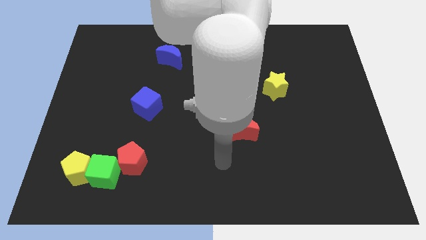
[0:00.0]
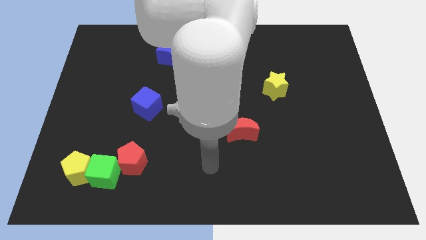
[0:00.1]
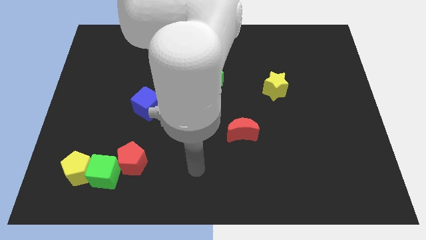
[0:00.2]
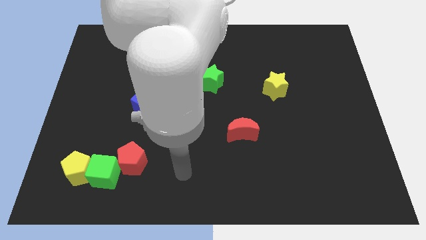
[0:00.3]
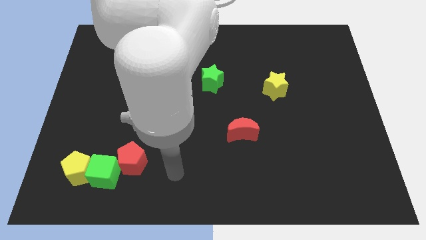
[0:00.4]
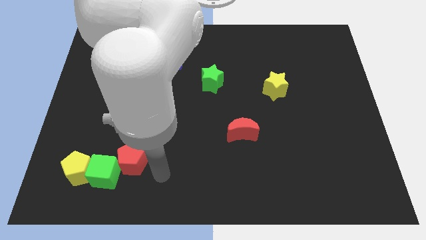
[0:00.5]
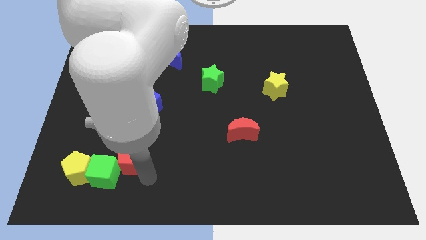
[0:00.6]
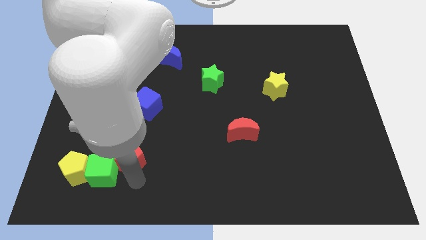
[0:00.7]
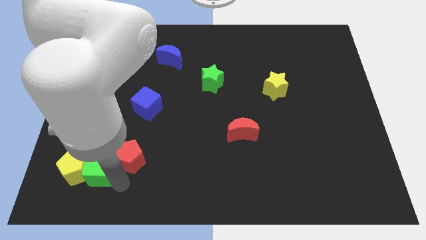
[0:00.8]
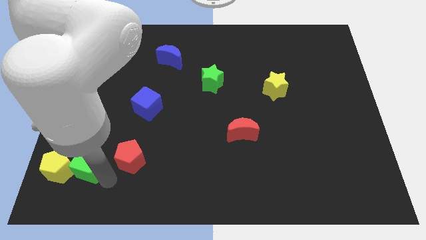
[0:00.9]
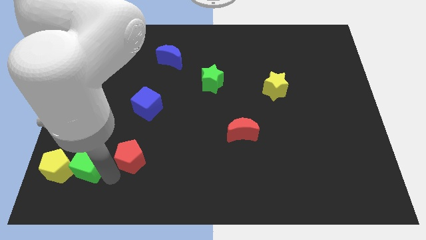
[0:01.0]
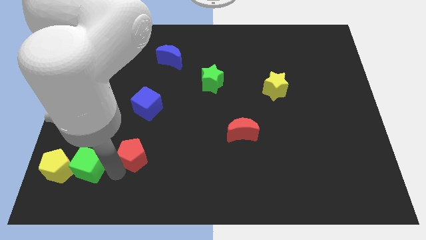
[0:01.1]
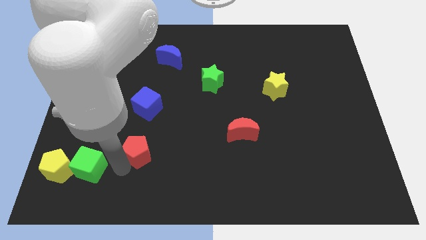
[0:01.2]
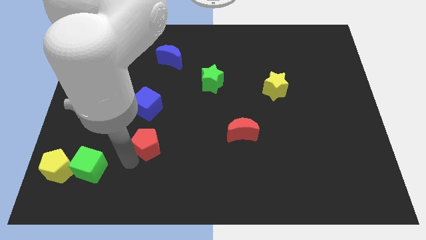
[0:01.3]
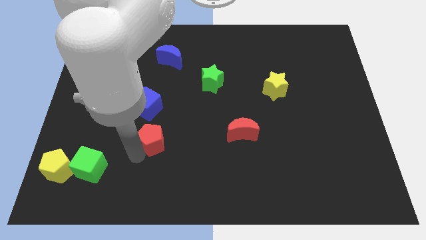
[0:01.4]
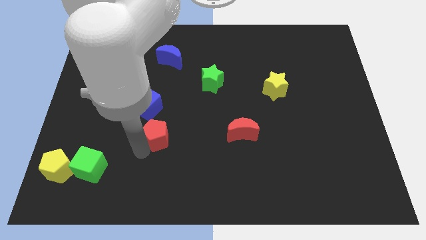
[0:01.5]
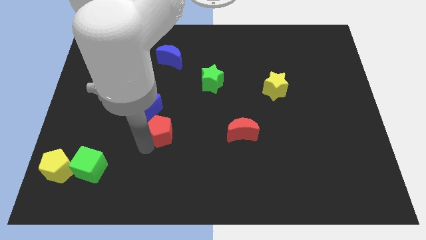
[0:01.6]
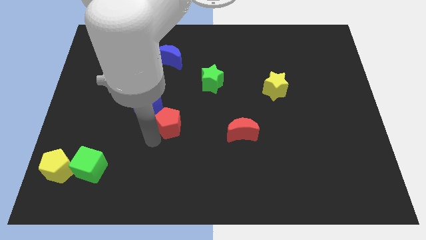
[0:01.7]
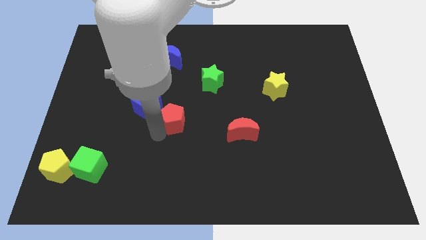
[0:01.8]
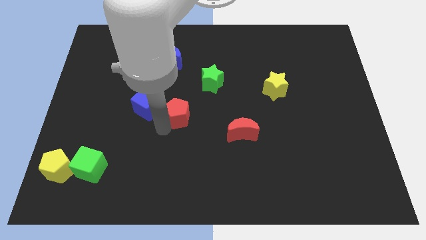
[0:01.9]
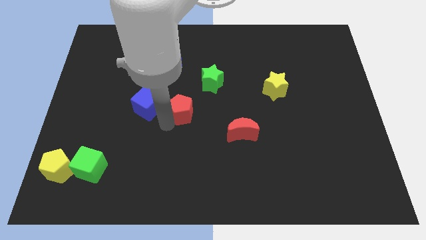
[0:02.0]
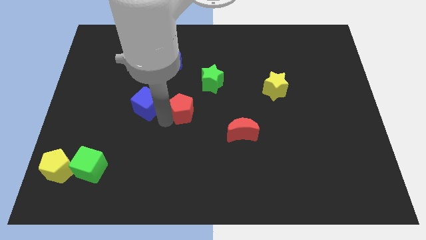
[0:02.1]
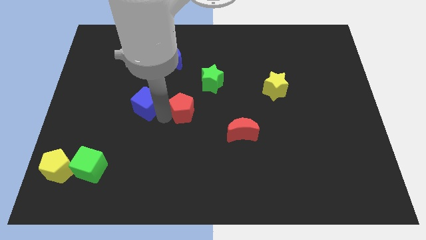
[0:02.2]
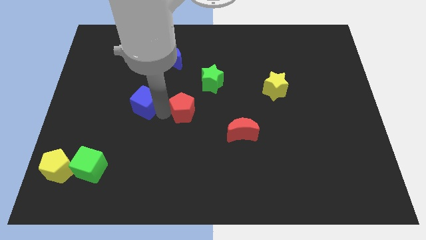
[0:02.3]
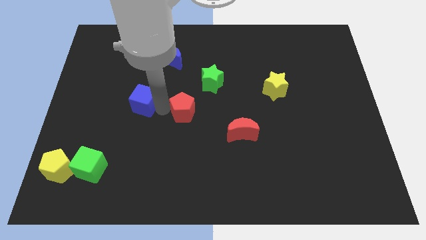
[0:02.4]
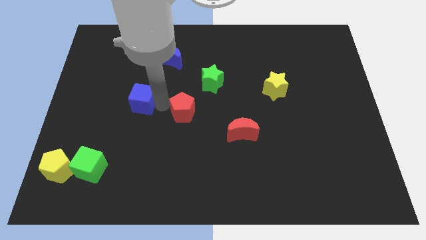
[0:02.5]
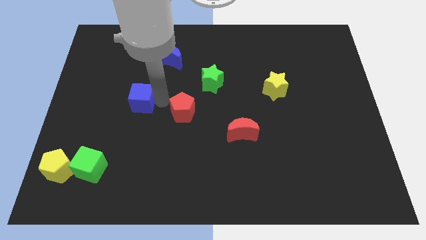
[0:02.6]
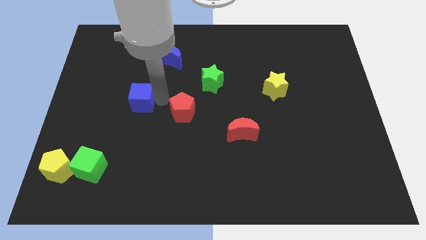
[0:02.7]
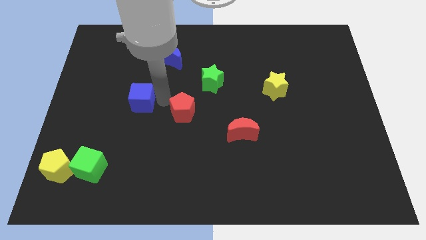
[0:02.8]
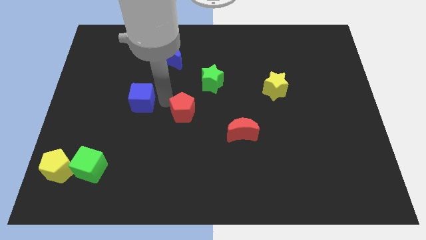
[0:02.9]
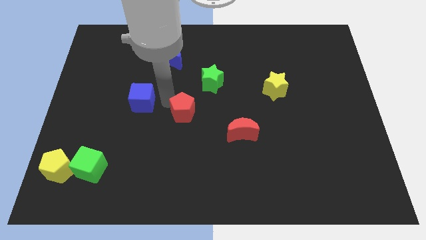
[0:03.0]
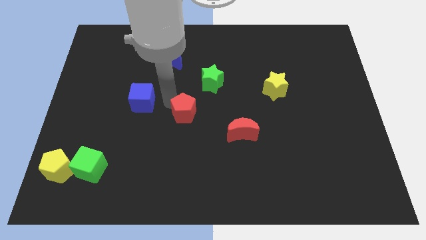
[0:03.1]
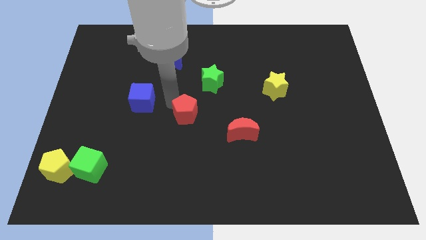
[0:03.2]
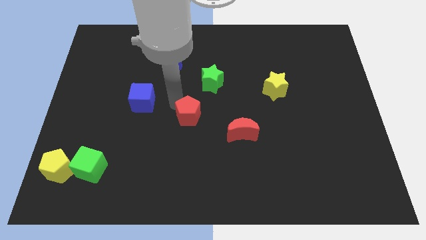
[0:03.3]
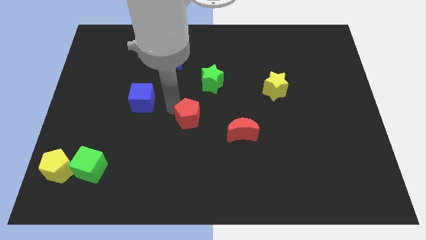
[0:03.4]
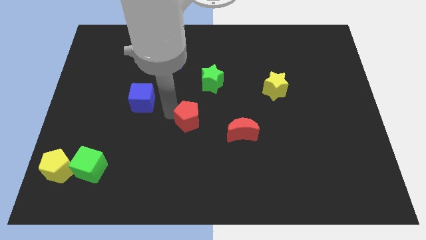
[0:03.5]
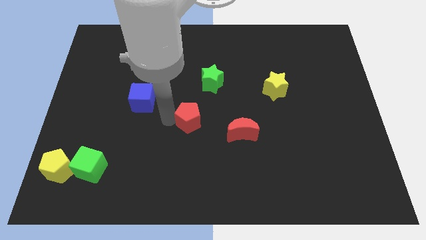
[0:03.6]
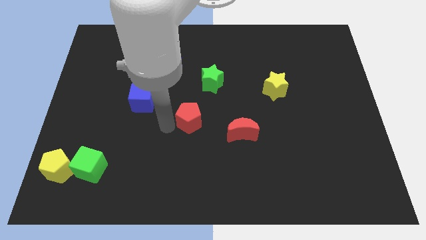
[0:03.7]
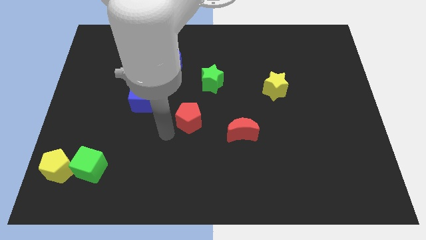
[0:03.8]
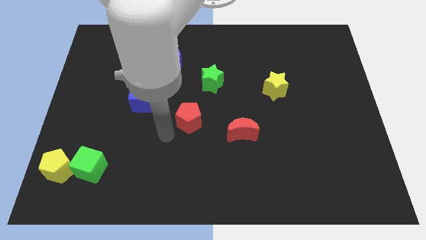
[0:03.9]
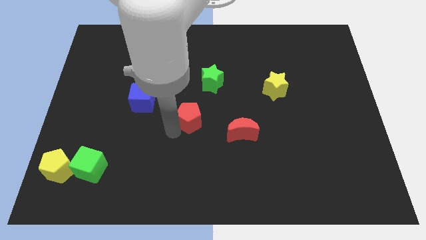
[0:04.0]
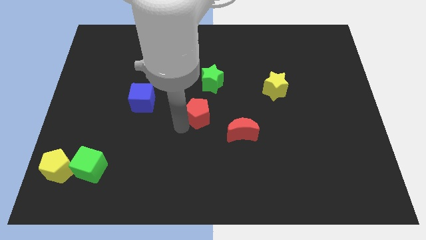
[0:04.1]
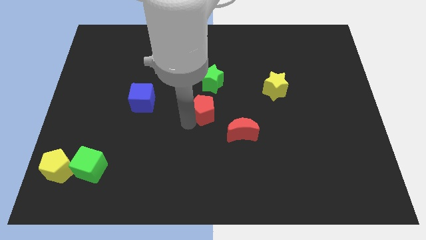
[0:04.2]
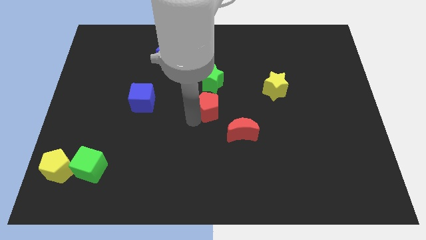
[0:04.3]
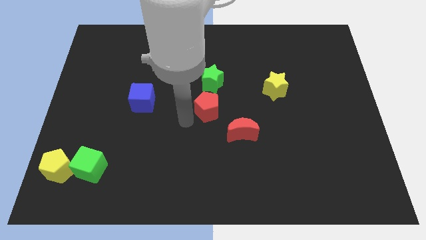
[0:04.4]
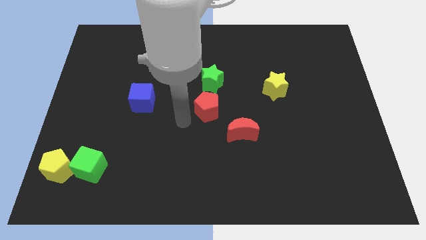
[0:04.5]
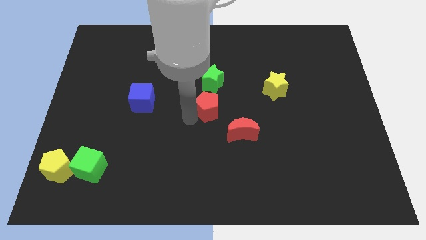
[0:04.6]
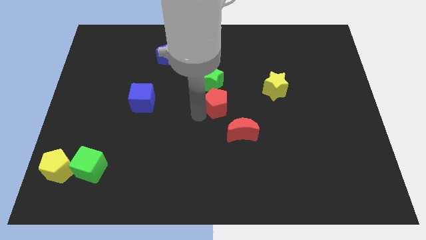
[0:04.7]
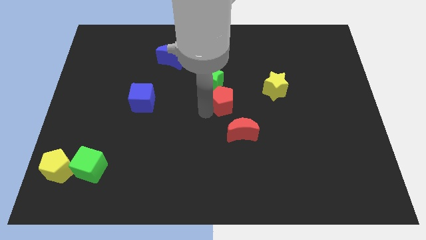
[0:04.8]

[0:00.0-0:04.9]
slide the red pentagon to the top of the red moon

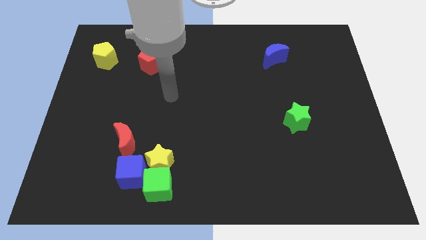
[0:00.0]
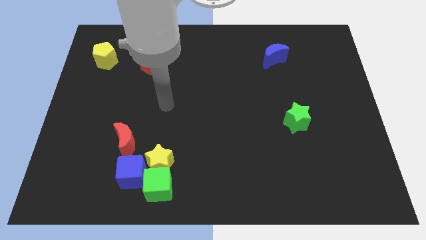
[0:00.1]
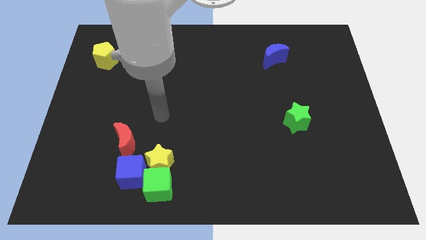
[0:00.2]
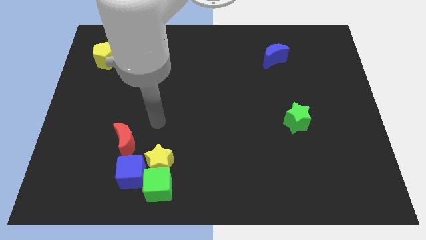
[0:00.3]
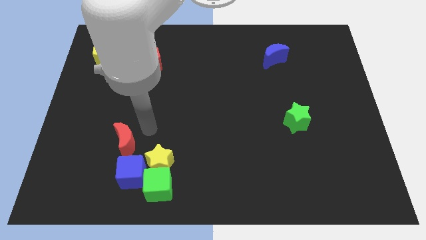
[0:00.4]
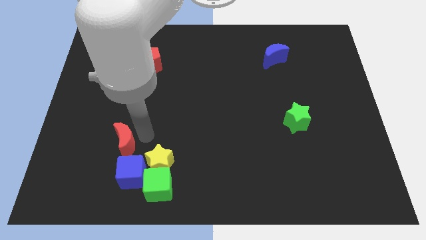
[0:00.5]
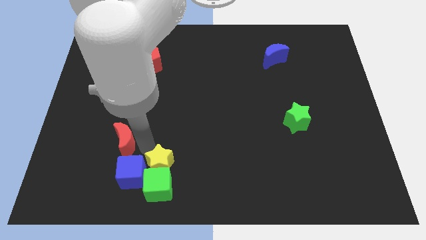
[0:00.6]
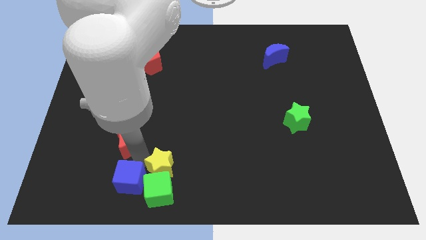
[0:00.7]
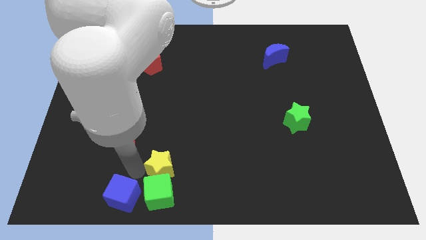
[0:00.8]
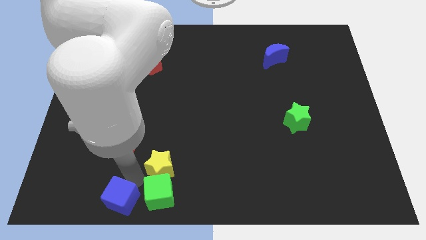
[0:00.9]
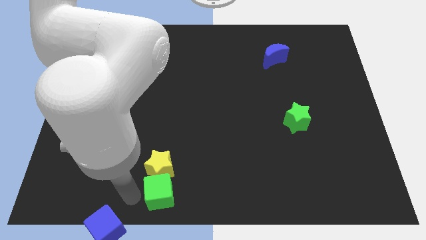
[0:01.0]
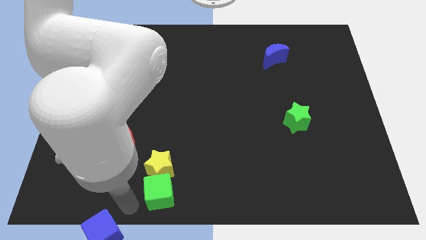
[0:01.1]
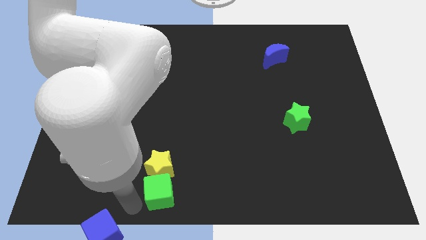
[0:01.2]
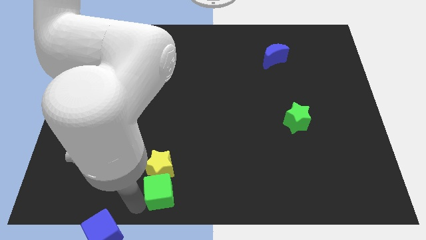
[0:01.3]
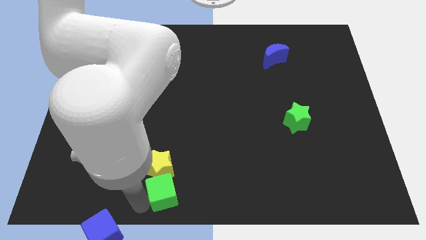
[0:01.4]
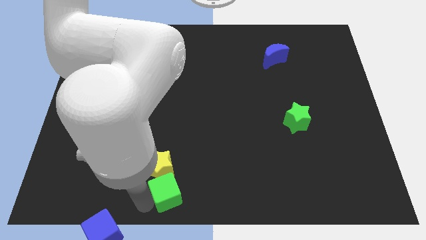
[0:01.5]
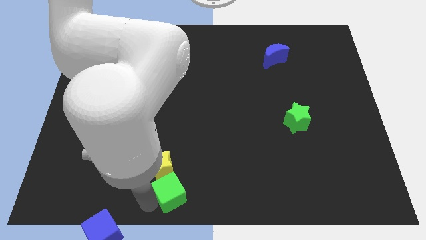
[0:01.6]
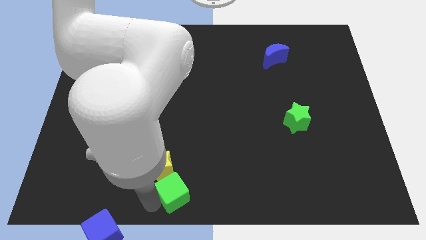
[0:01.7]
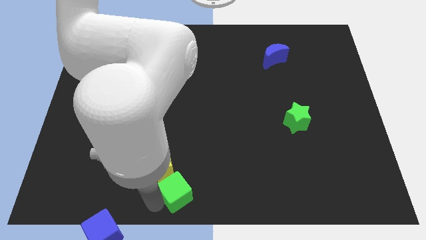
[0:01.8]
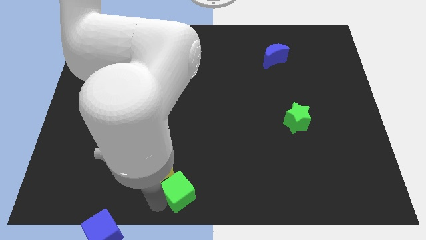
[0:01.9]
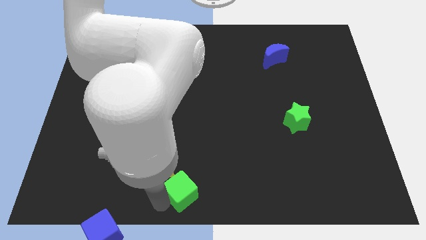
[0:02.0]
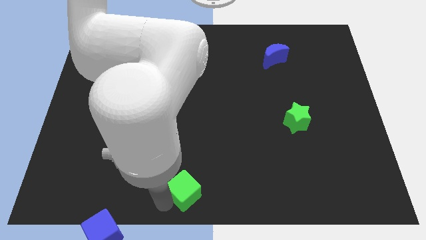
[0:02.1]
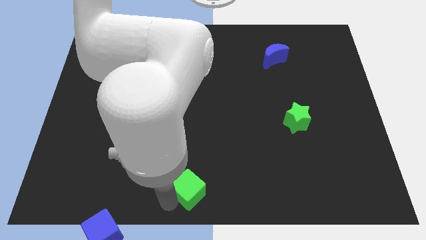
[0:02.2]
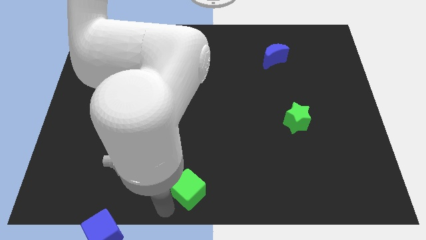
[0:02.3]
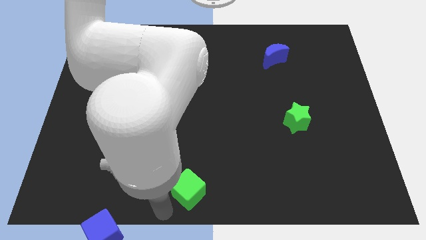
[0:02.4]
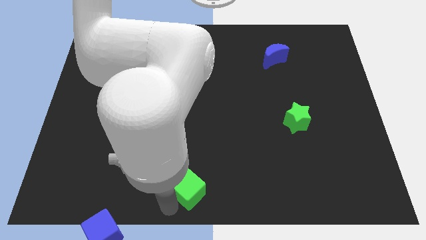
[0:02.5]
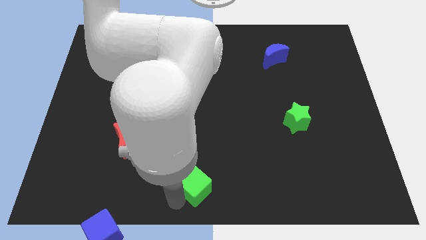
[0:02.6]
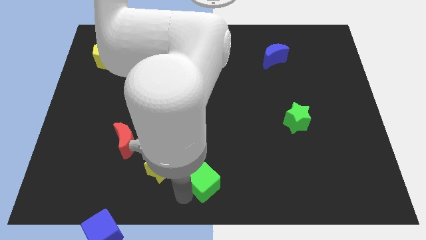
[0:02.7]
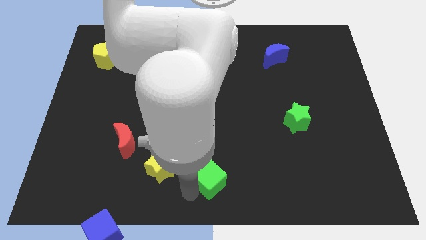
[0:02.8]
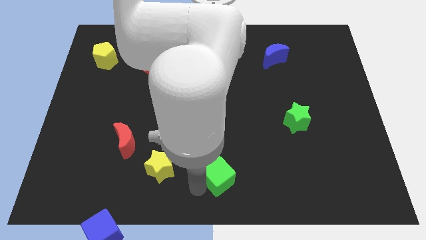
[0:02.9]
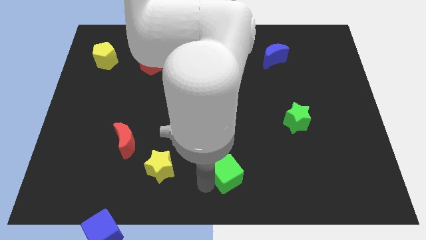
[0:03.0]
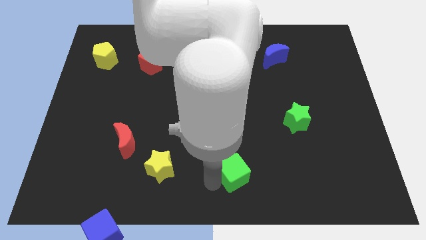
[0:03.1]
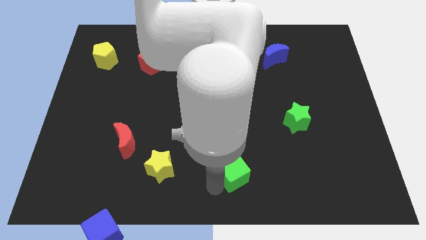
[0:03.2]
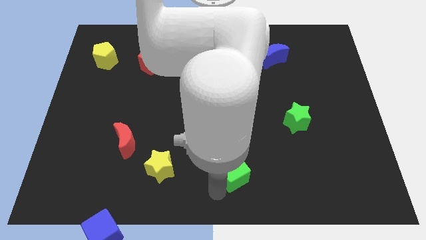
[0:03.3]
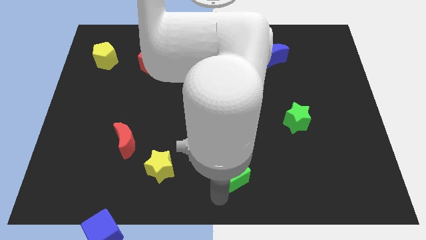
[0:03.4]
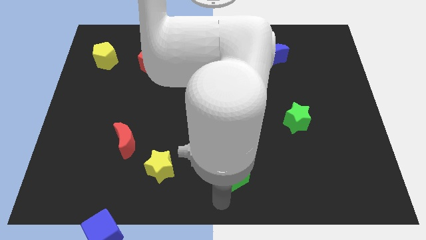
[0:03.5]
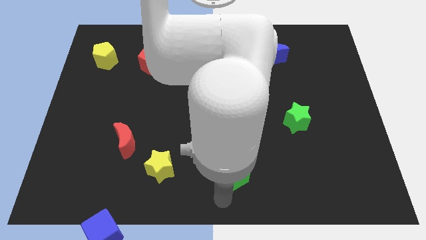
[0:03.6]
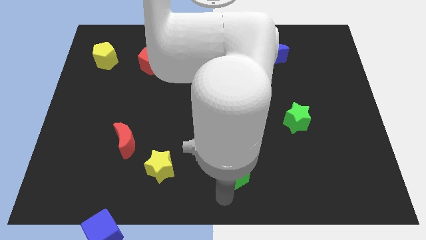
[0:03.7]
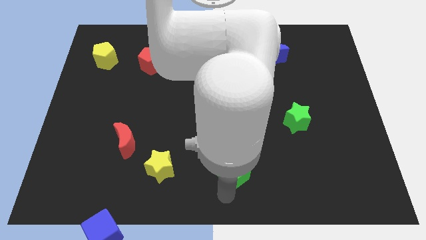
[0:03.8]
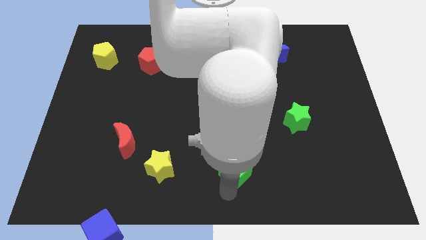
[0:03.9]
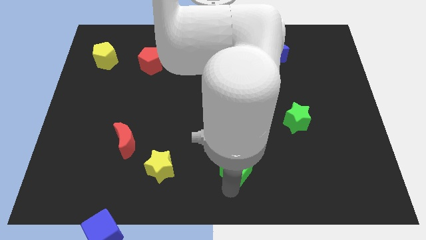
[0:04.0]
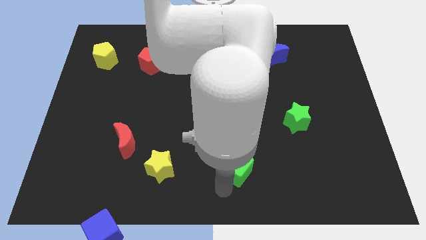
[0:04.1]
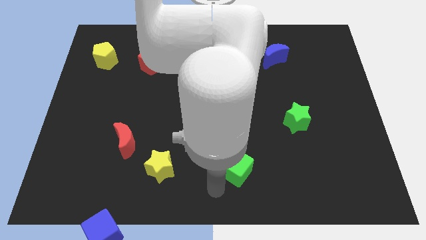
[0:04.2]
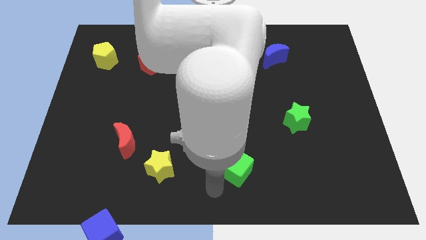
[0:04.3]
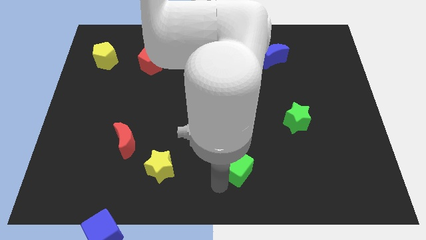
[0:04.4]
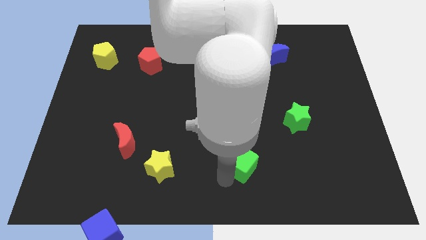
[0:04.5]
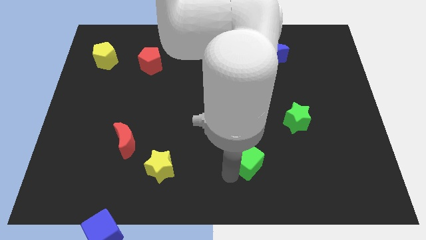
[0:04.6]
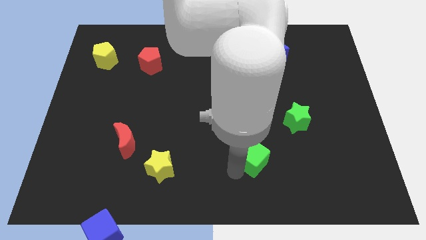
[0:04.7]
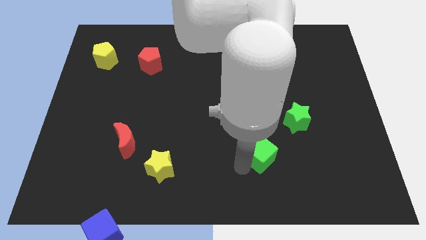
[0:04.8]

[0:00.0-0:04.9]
slide the green cube to the bottom left side of the green star
